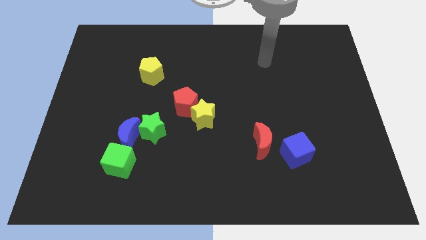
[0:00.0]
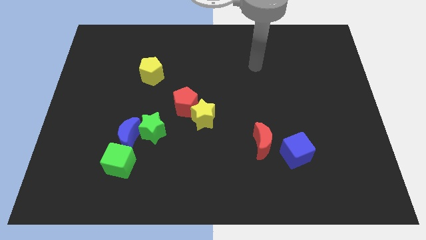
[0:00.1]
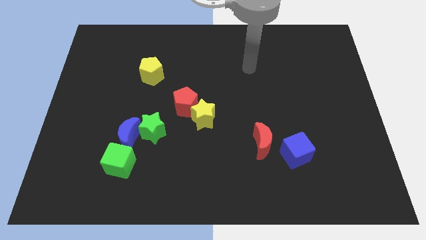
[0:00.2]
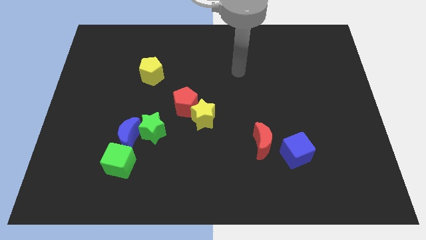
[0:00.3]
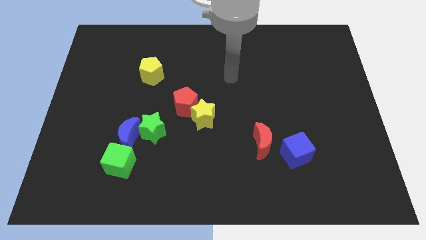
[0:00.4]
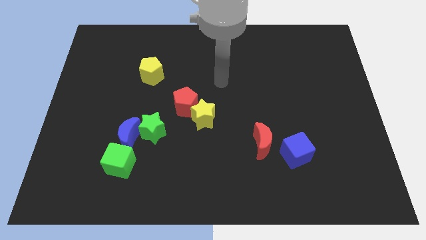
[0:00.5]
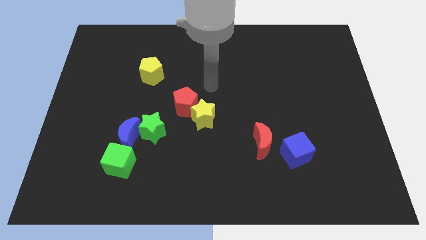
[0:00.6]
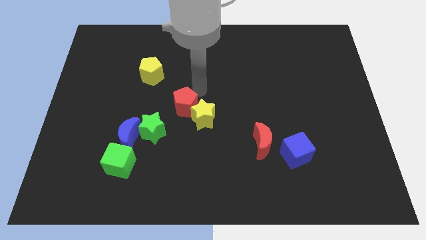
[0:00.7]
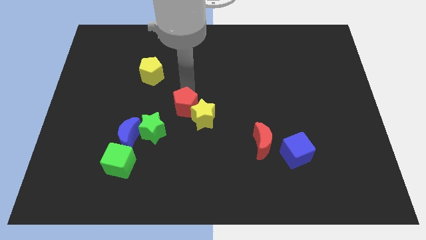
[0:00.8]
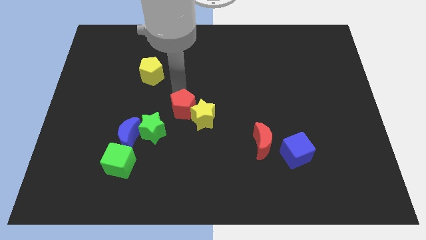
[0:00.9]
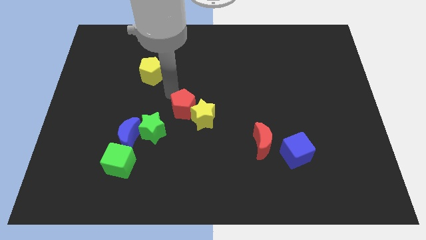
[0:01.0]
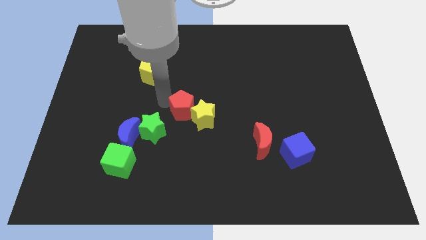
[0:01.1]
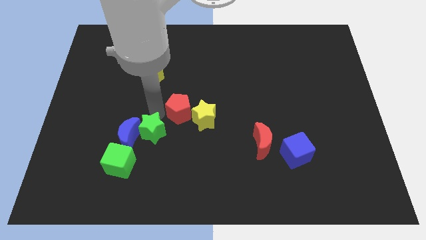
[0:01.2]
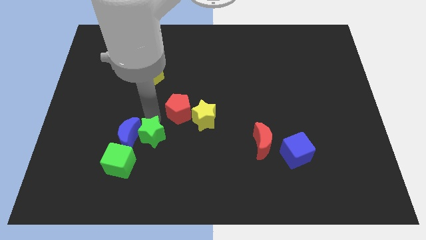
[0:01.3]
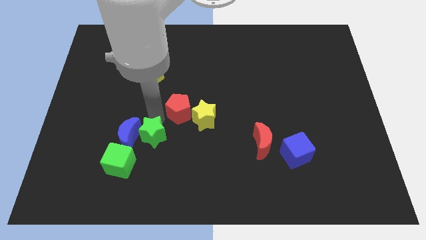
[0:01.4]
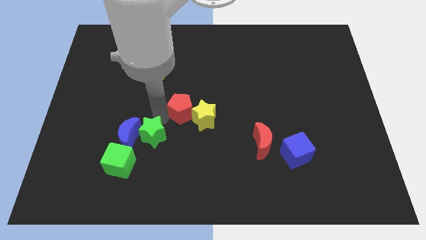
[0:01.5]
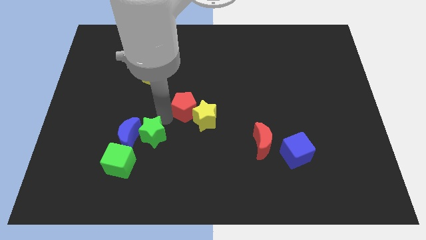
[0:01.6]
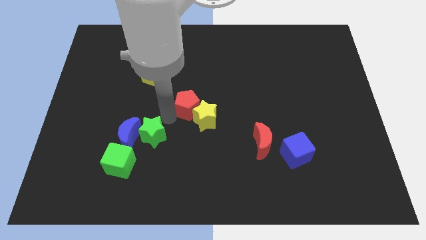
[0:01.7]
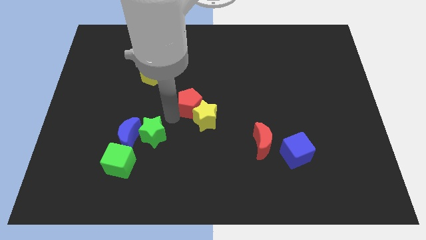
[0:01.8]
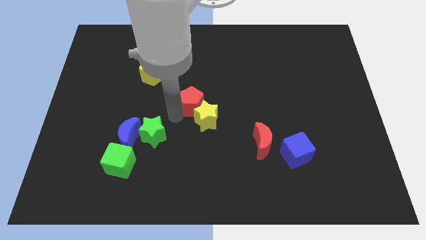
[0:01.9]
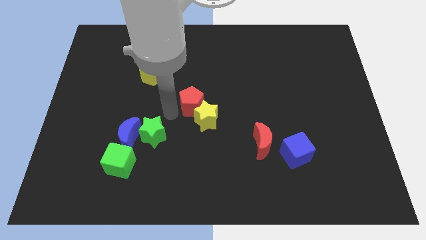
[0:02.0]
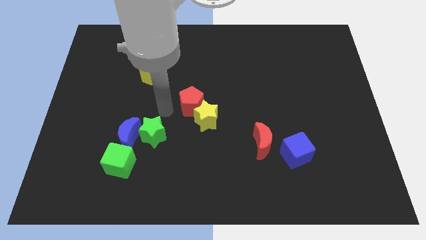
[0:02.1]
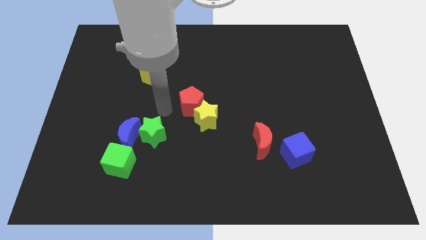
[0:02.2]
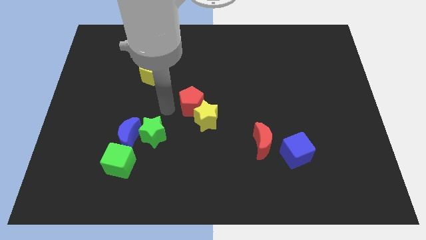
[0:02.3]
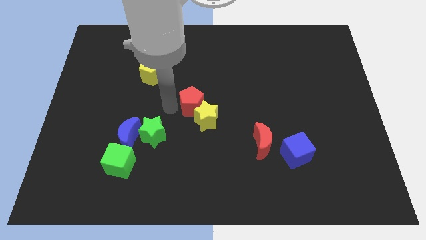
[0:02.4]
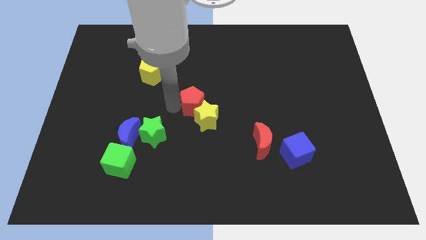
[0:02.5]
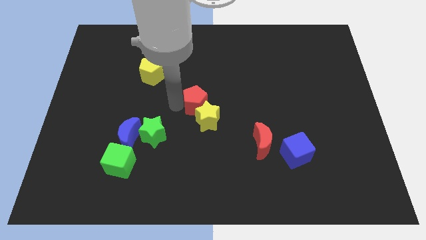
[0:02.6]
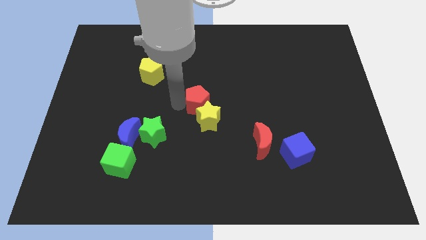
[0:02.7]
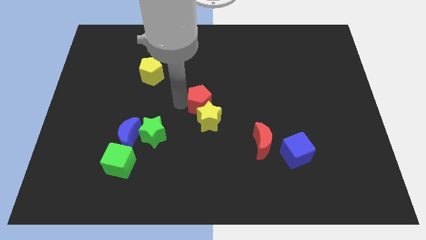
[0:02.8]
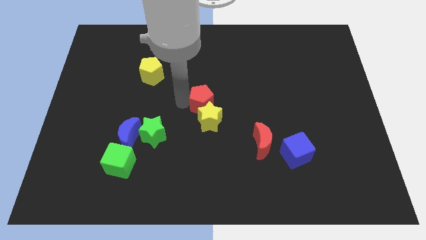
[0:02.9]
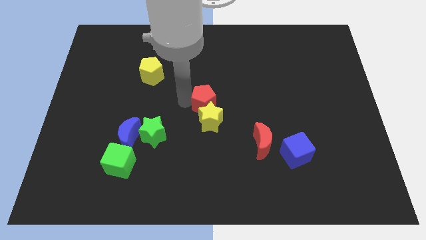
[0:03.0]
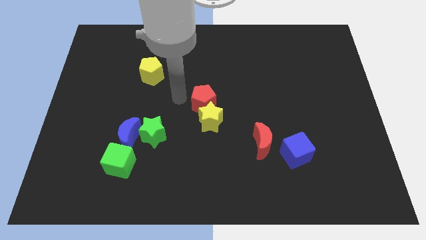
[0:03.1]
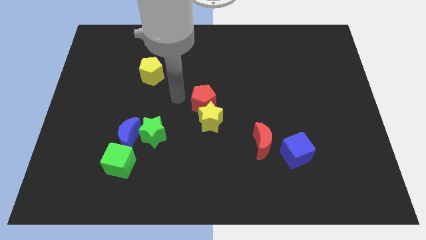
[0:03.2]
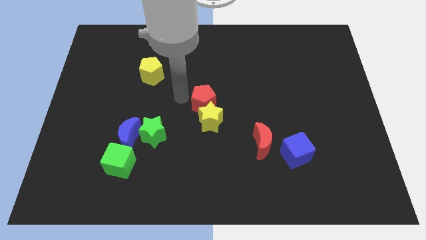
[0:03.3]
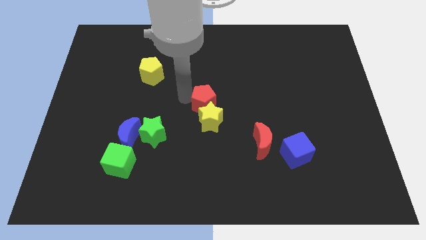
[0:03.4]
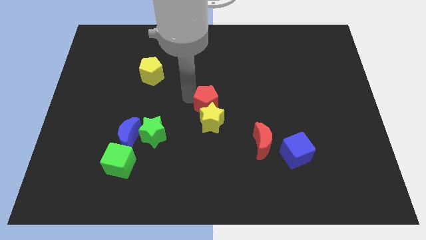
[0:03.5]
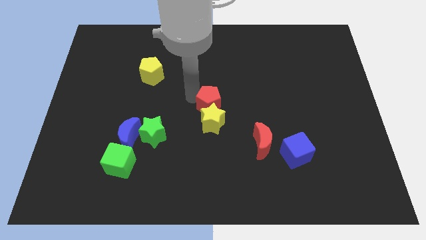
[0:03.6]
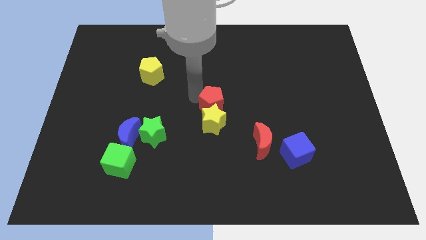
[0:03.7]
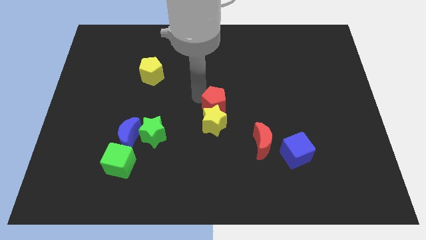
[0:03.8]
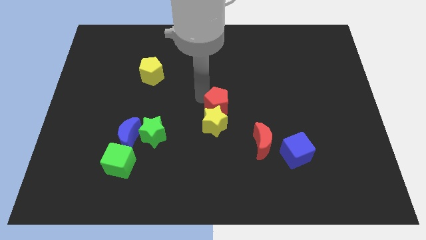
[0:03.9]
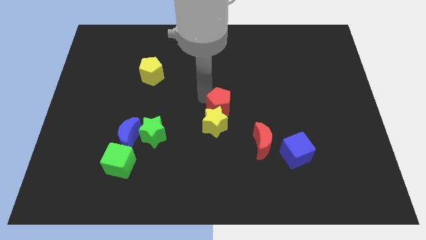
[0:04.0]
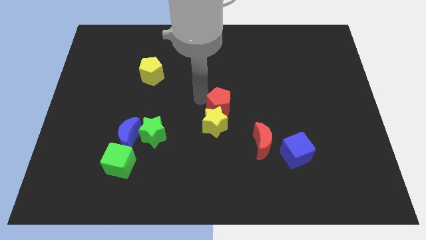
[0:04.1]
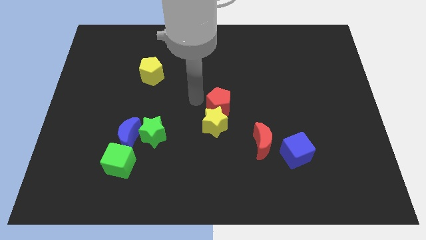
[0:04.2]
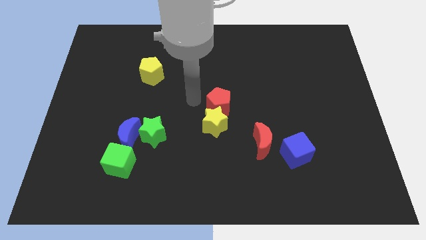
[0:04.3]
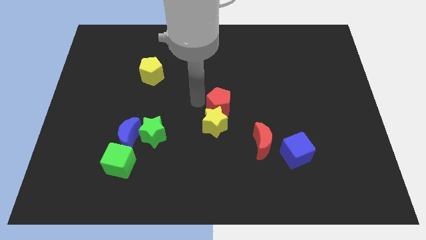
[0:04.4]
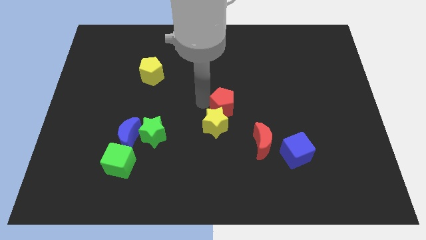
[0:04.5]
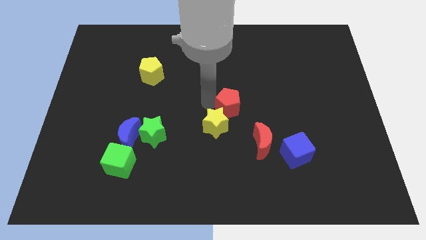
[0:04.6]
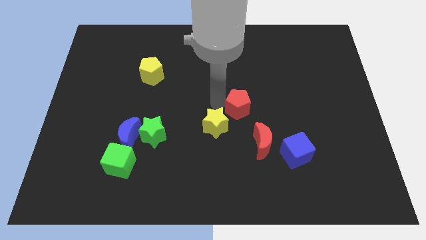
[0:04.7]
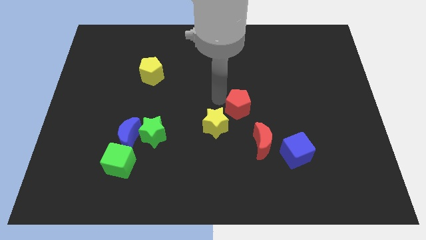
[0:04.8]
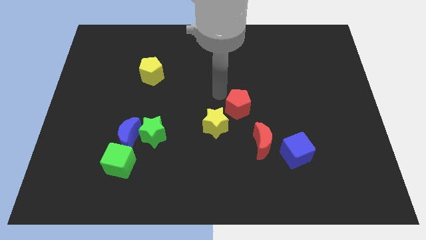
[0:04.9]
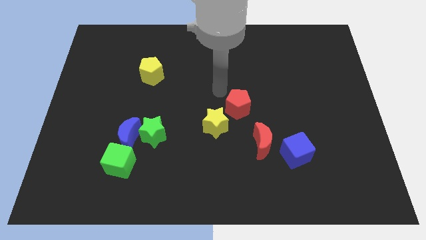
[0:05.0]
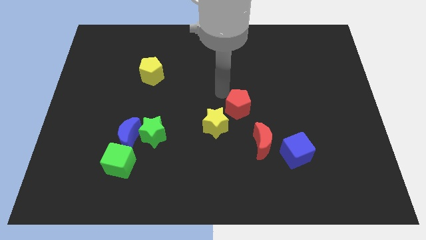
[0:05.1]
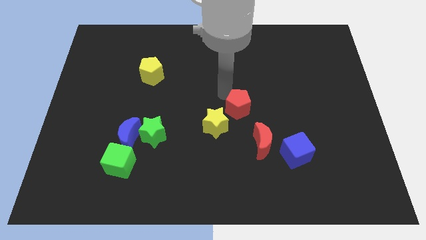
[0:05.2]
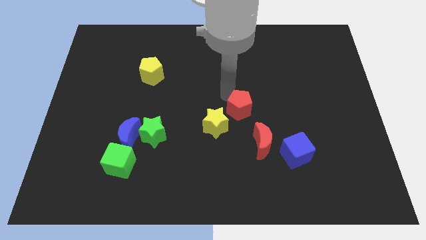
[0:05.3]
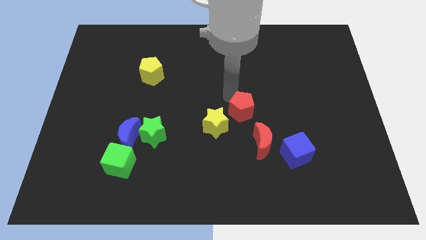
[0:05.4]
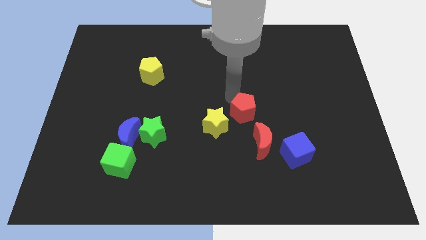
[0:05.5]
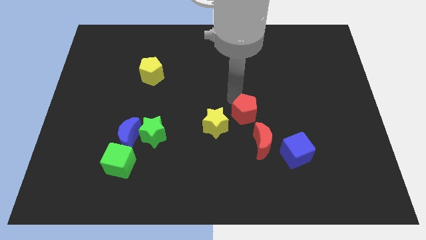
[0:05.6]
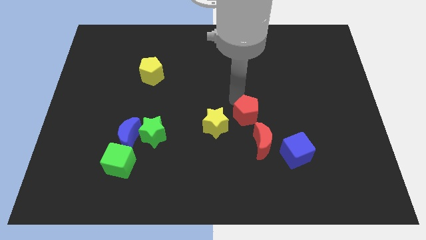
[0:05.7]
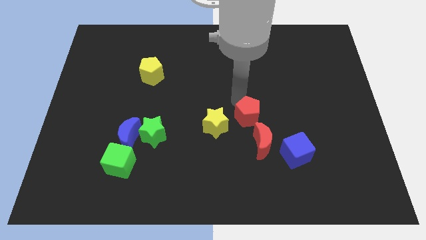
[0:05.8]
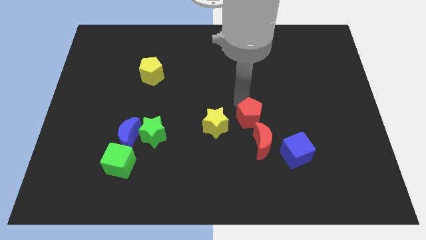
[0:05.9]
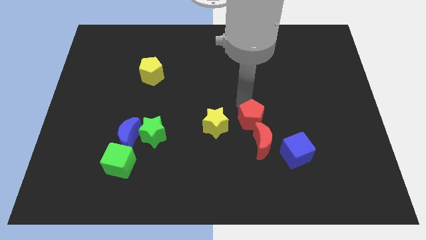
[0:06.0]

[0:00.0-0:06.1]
slide the red pentagon to the top left side of the blue cube
